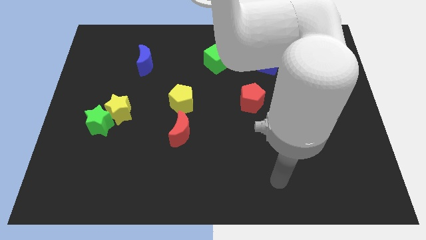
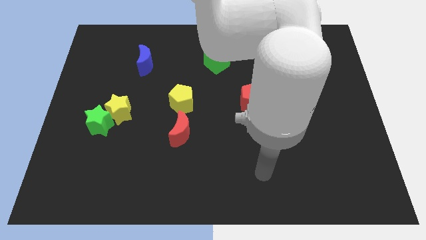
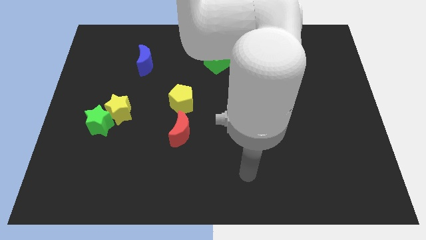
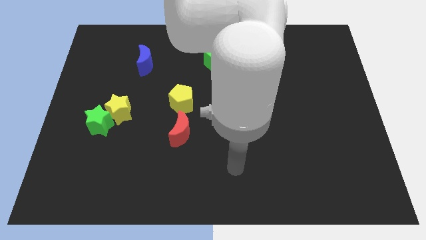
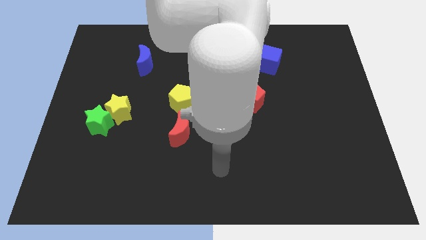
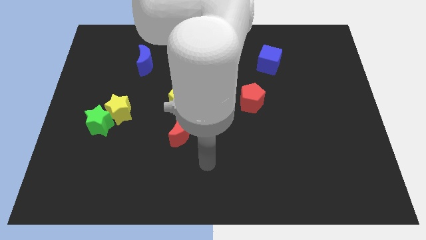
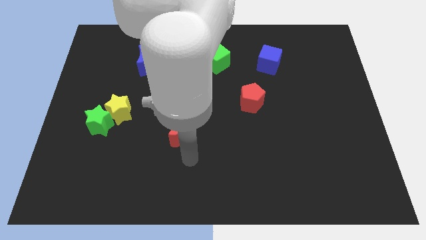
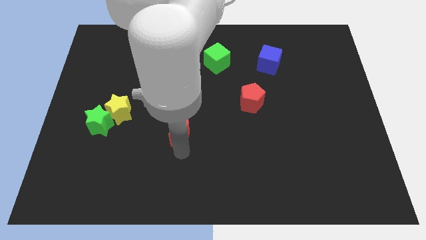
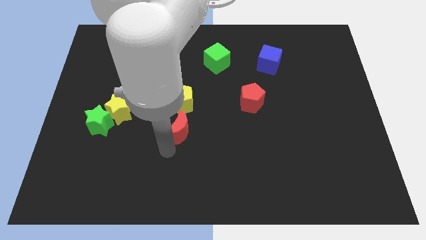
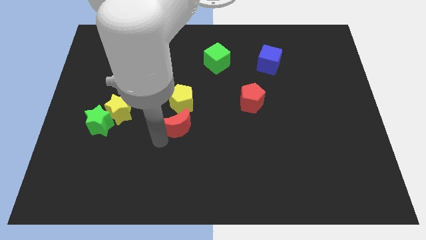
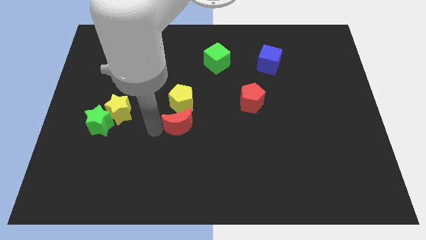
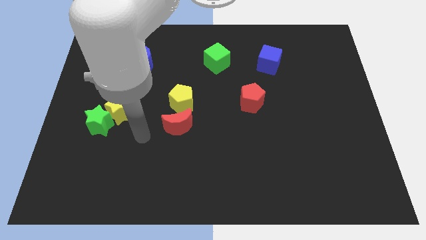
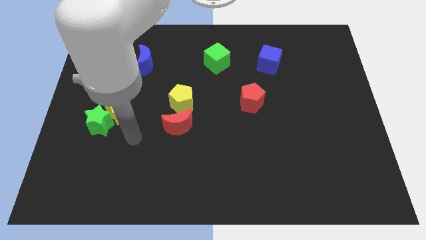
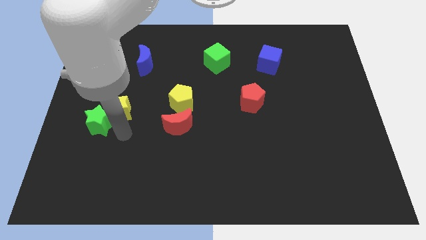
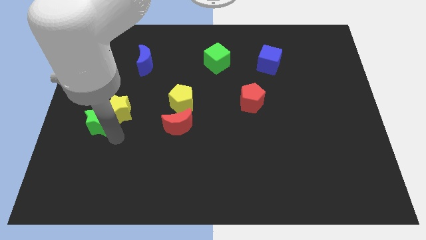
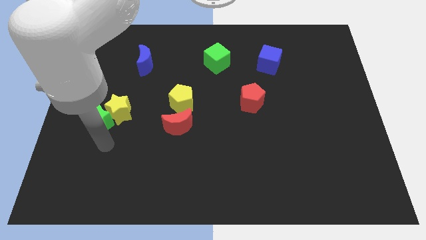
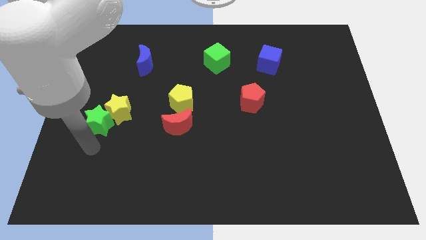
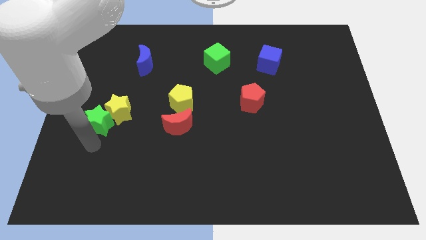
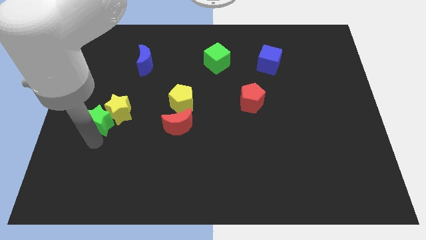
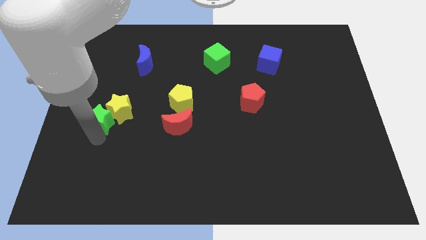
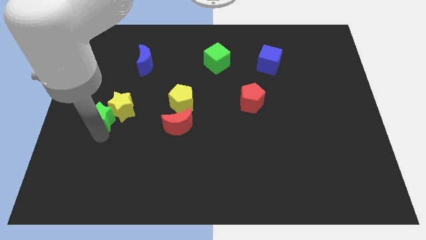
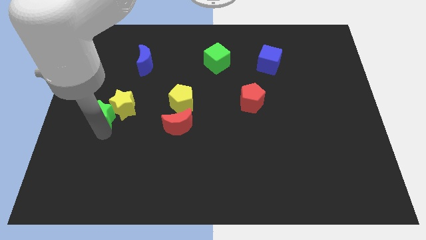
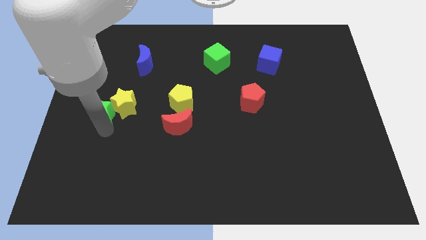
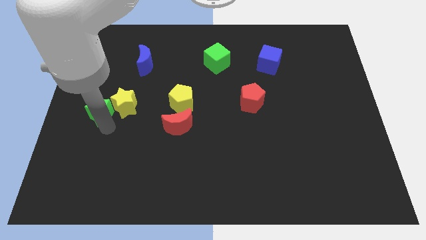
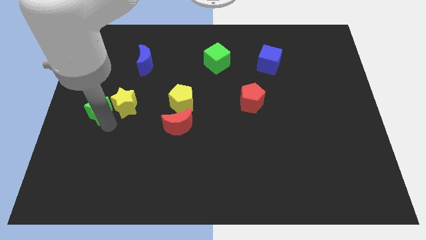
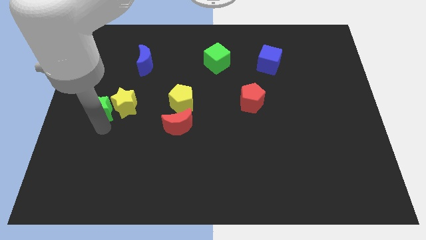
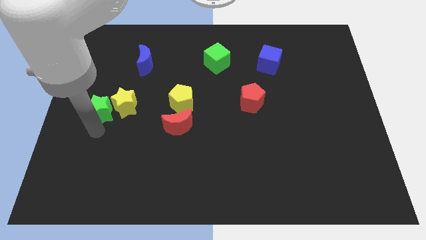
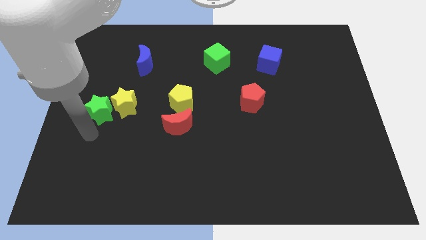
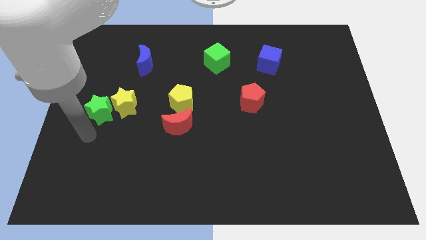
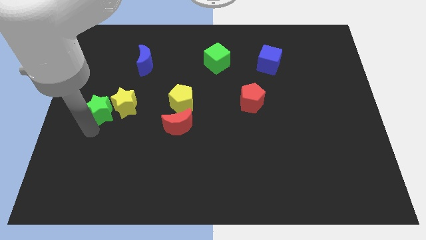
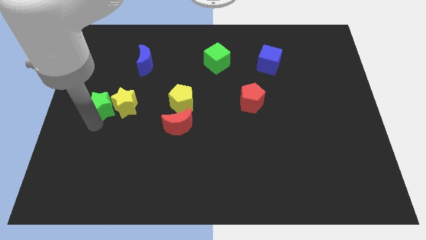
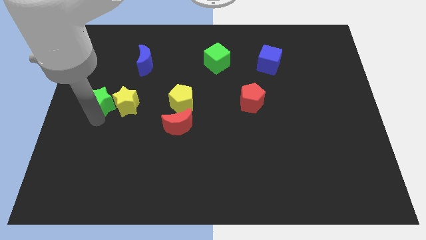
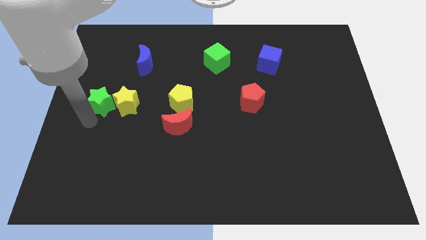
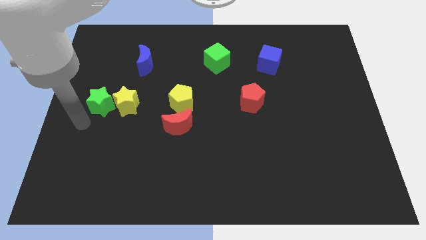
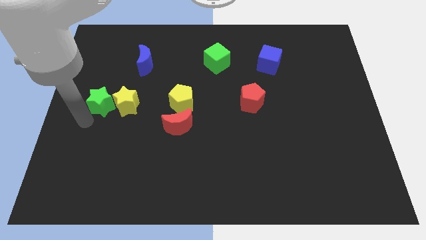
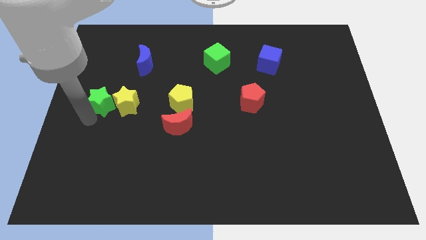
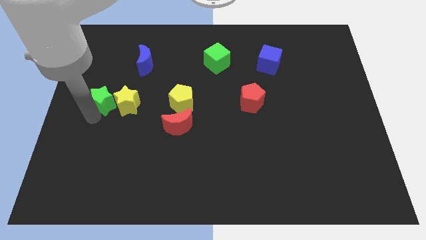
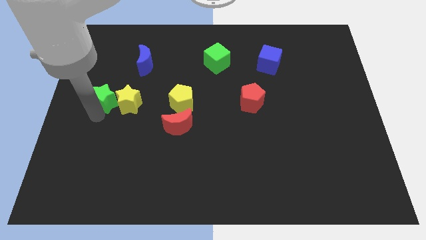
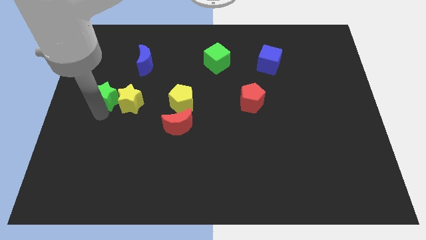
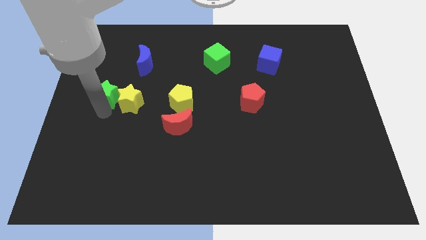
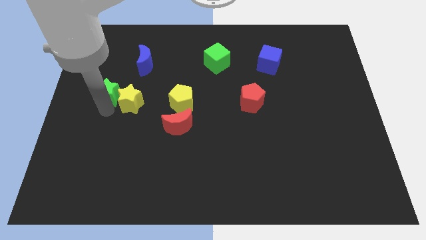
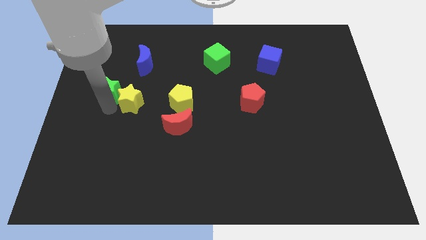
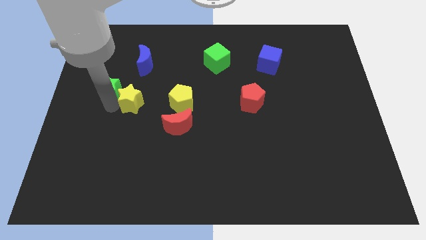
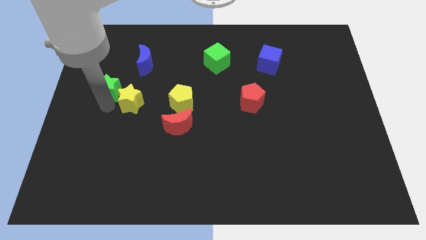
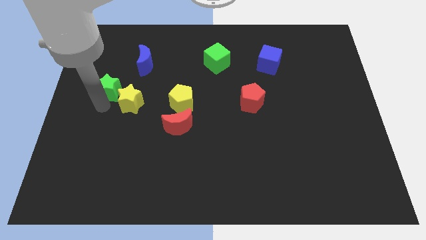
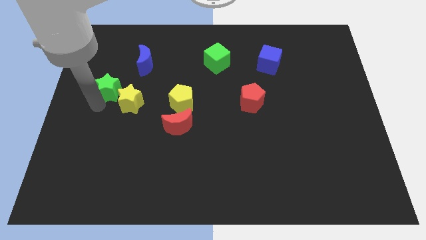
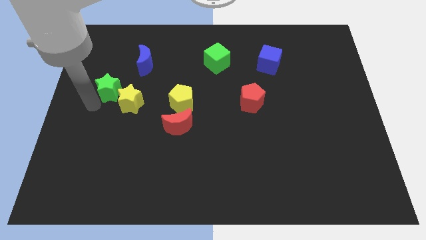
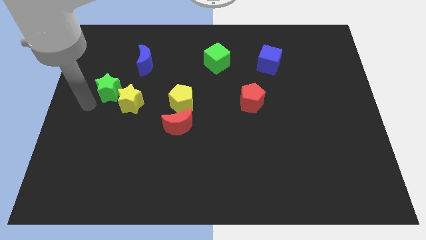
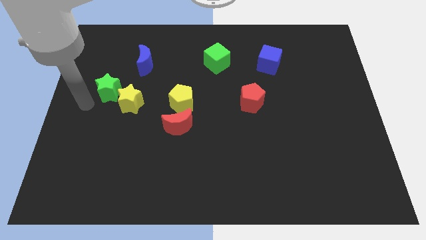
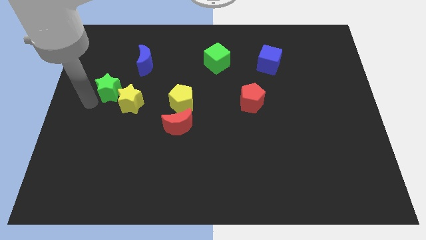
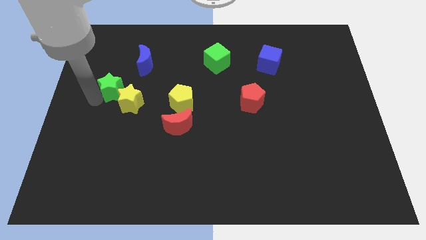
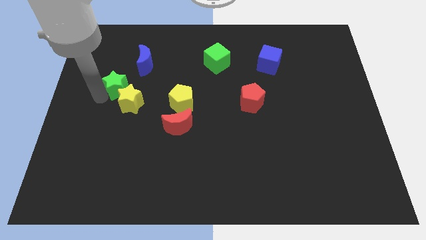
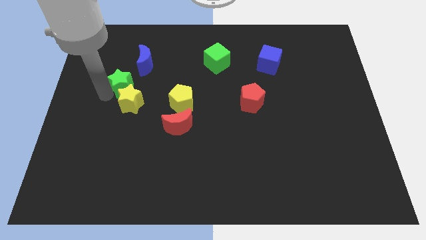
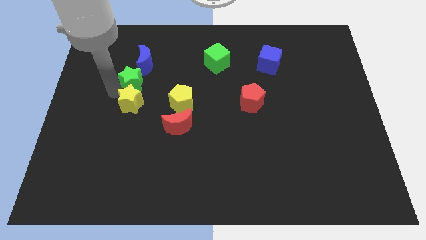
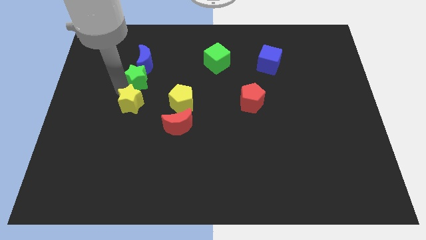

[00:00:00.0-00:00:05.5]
slide the green star close to the blue moon

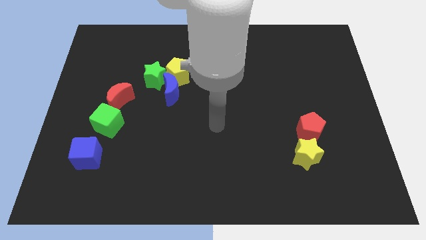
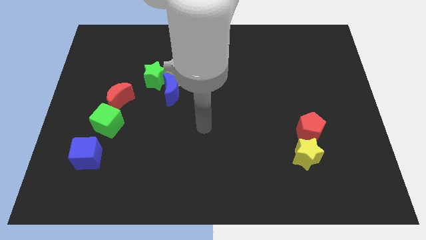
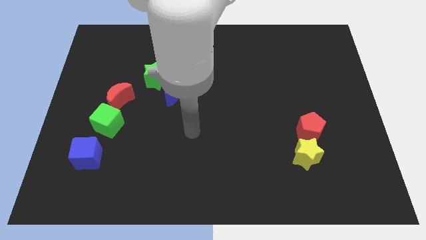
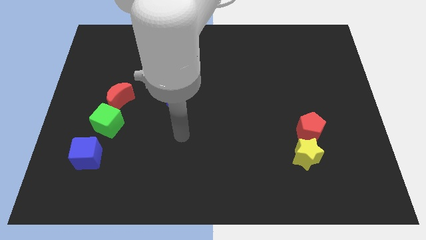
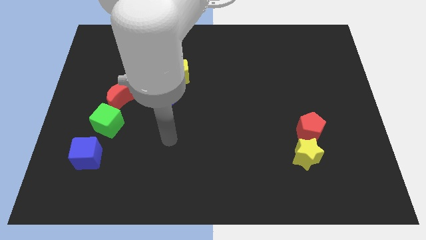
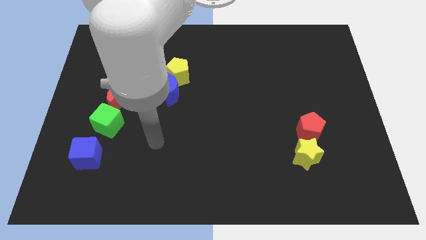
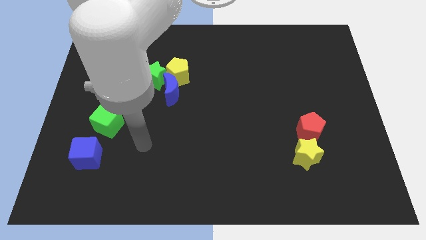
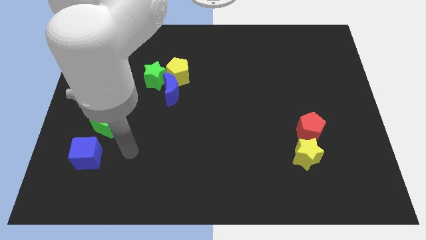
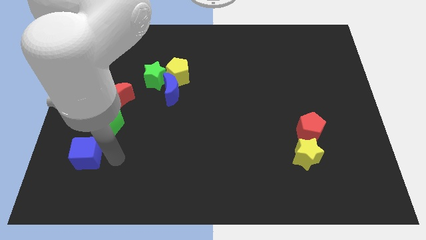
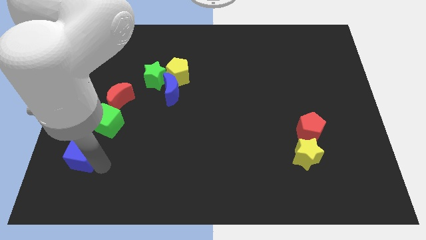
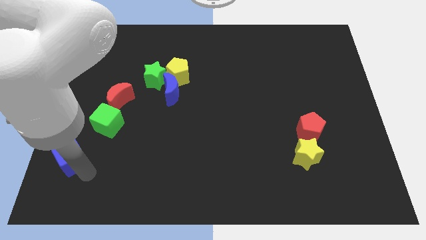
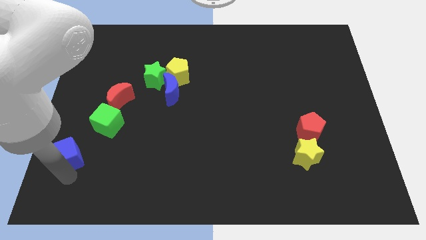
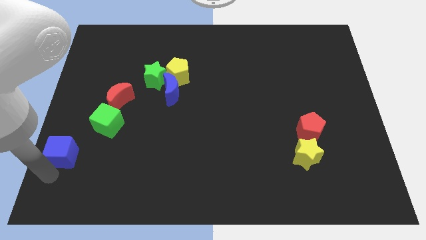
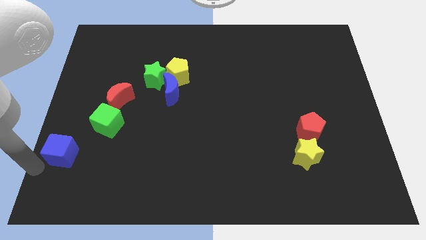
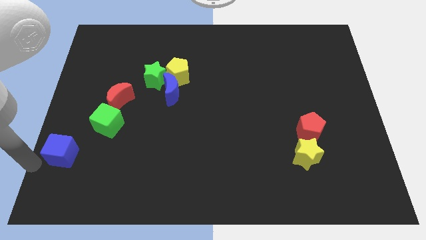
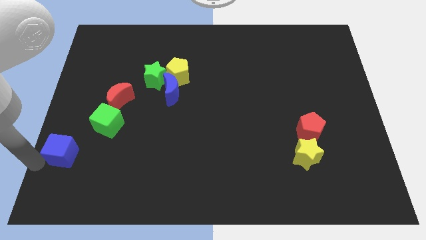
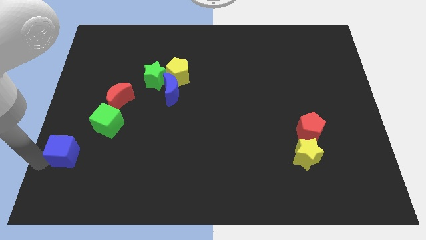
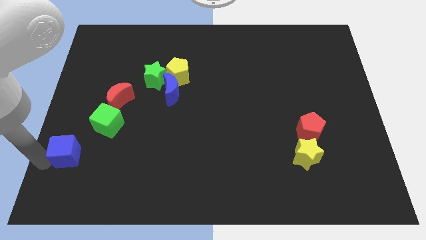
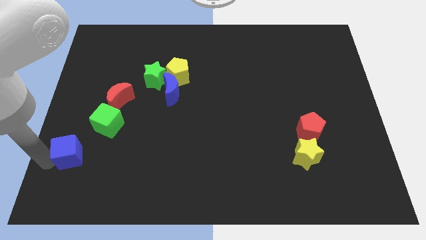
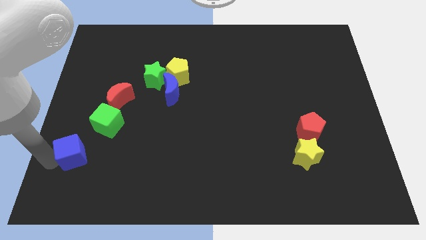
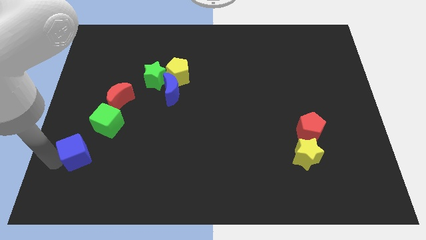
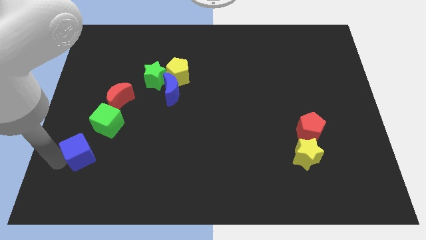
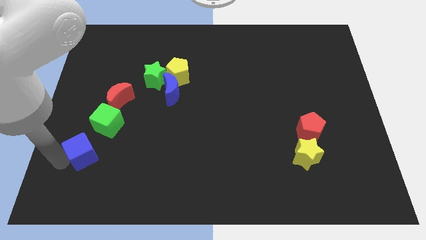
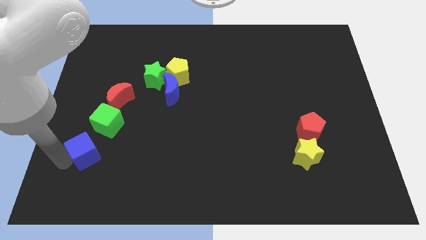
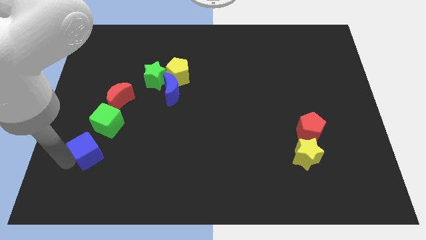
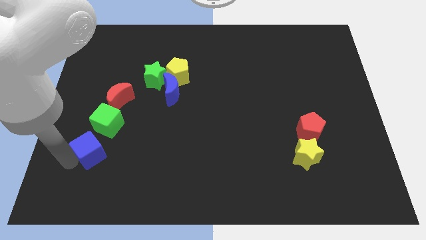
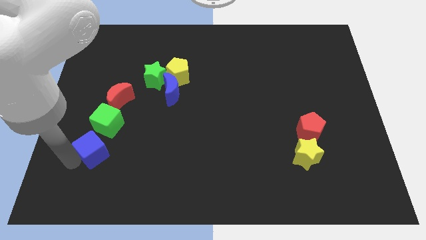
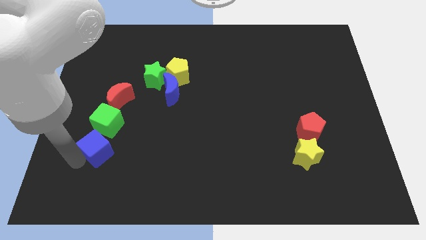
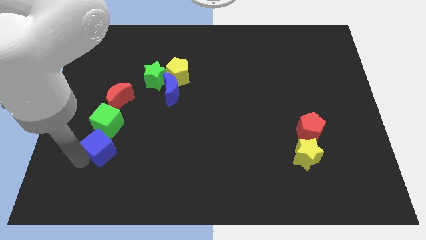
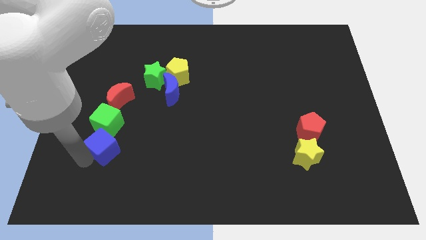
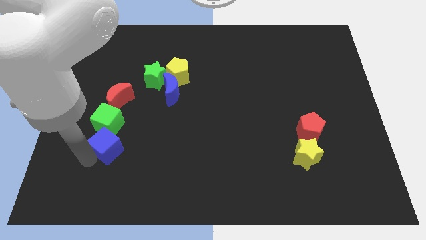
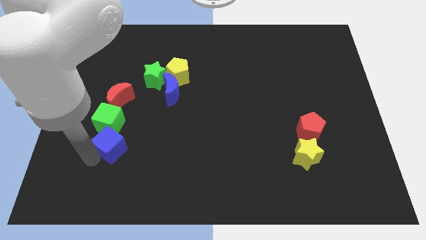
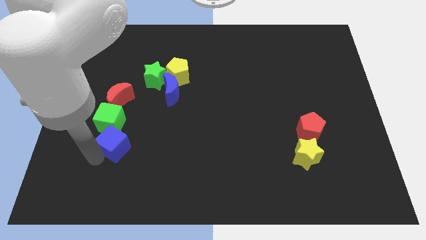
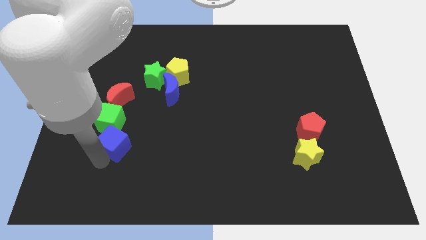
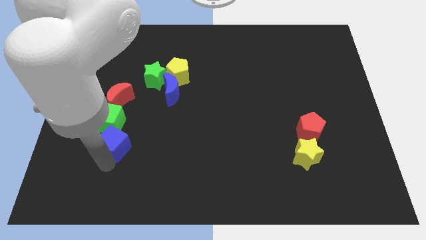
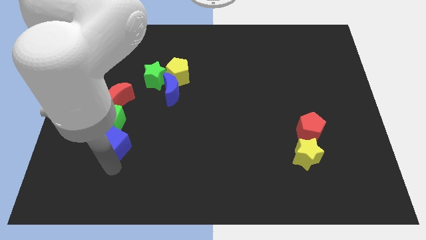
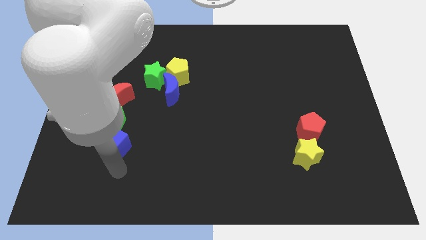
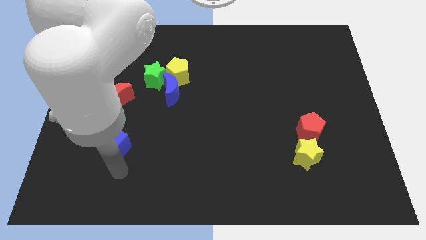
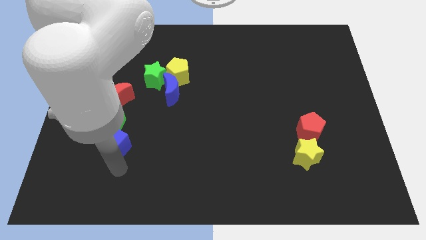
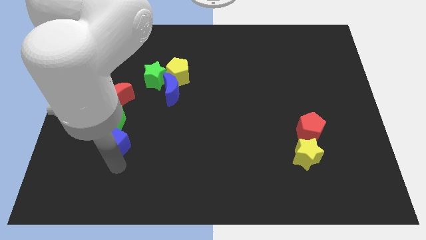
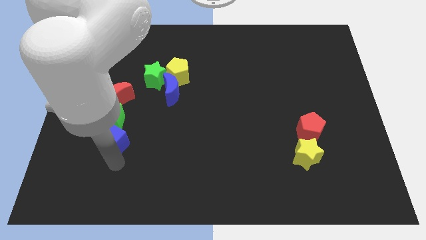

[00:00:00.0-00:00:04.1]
put the blue cube towards the green cube
